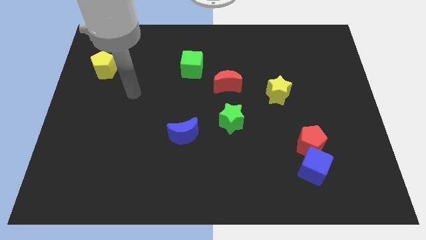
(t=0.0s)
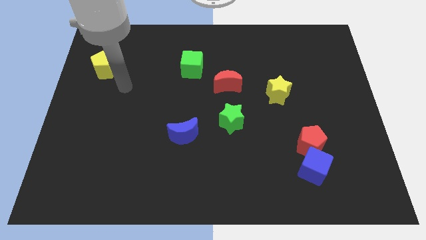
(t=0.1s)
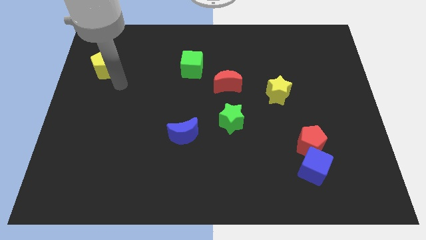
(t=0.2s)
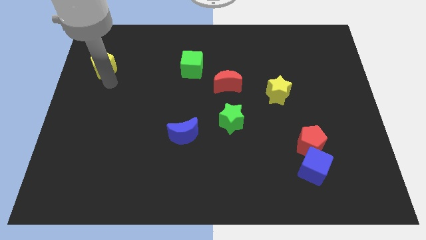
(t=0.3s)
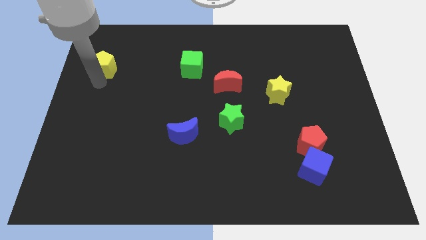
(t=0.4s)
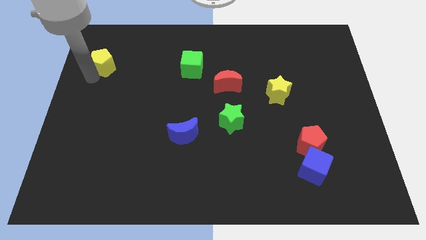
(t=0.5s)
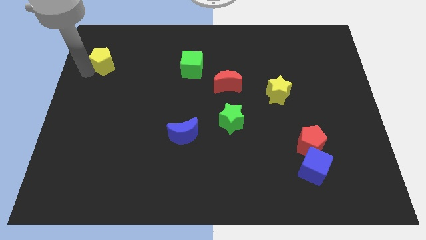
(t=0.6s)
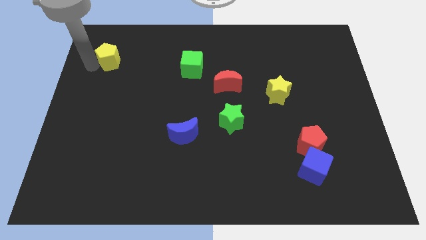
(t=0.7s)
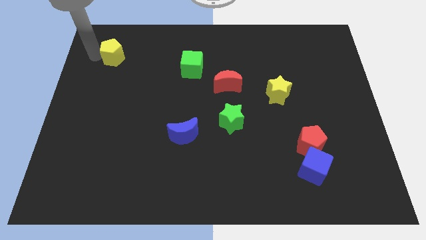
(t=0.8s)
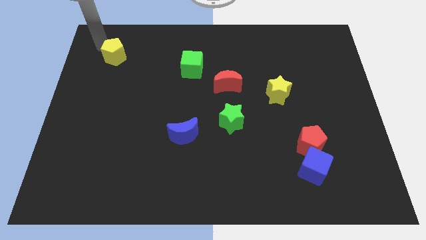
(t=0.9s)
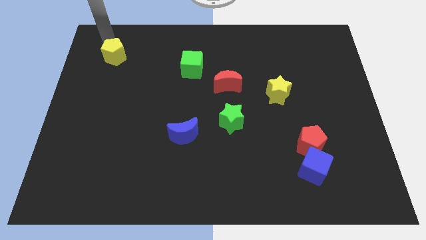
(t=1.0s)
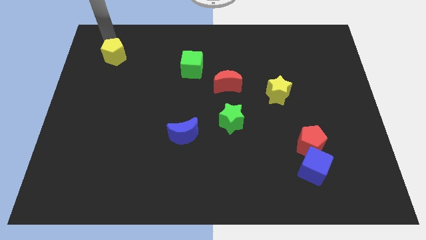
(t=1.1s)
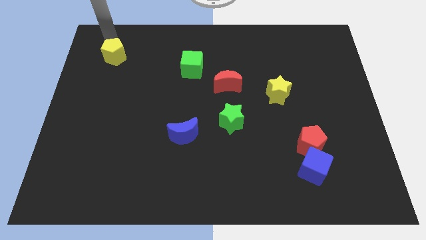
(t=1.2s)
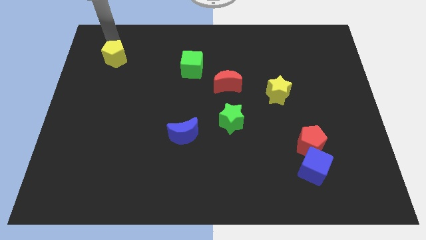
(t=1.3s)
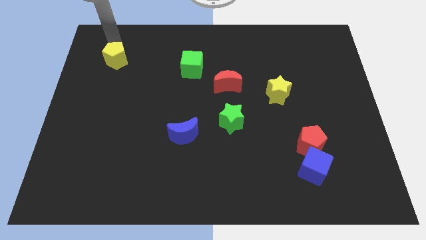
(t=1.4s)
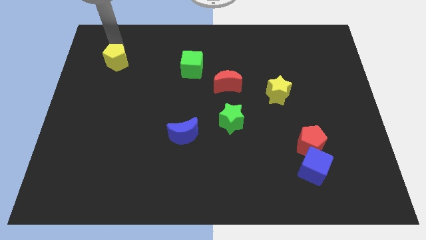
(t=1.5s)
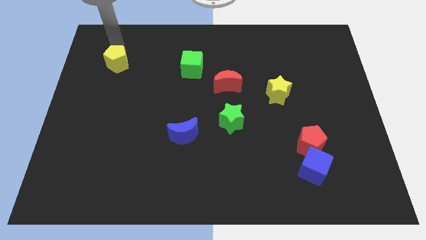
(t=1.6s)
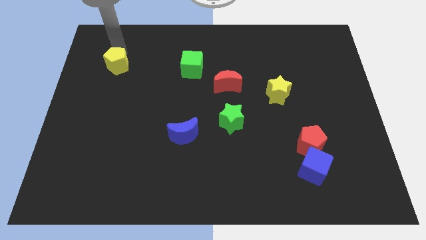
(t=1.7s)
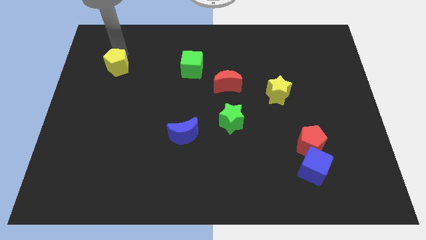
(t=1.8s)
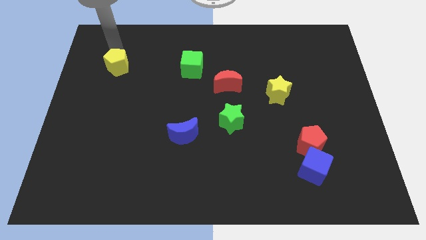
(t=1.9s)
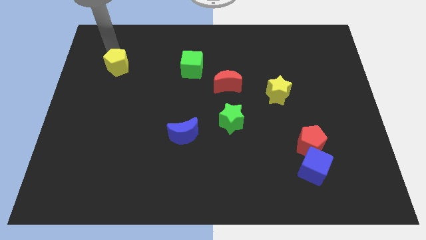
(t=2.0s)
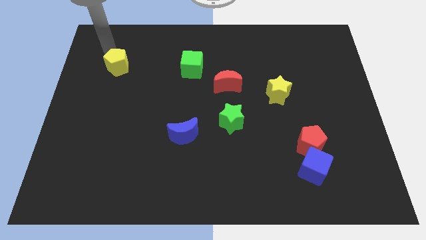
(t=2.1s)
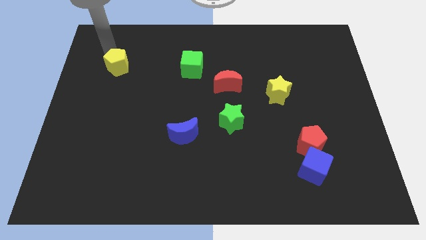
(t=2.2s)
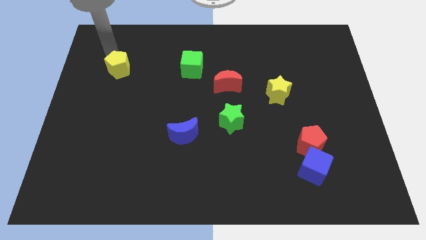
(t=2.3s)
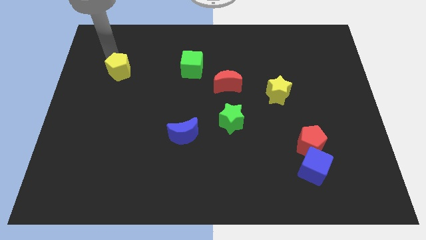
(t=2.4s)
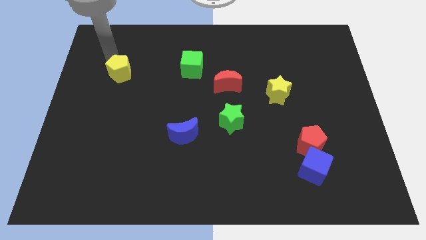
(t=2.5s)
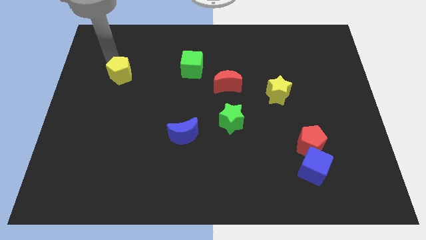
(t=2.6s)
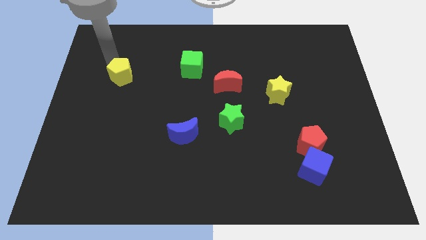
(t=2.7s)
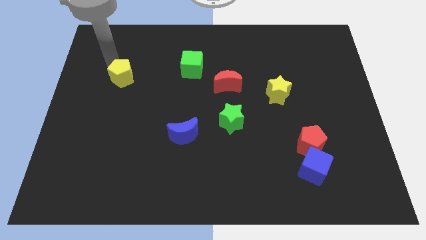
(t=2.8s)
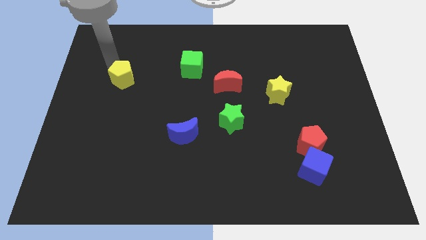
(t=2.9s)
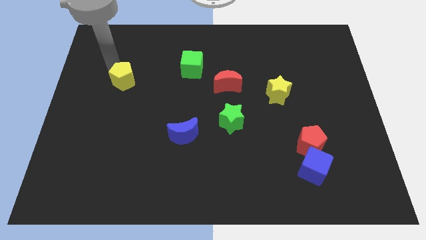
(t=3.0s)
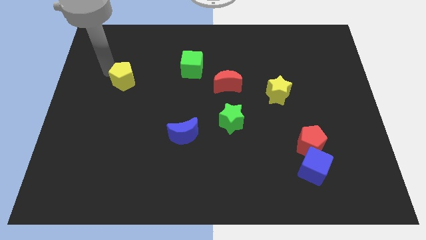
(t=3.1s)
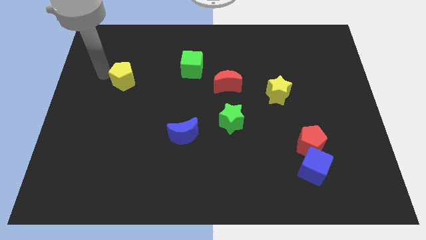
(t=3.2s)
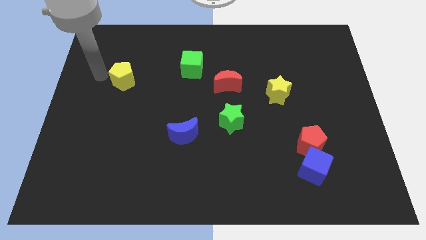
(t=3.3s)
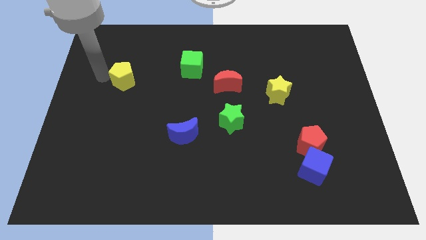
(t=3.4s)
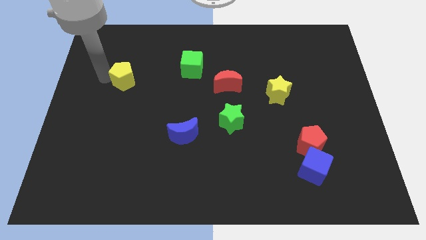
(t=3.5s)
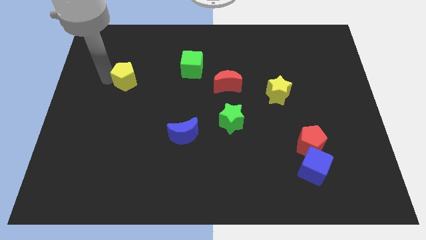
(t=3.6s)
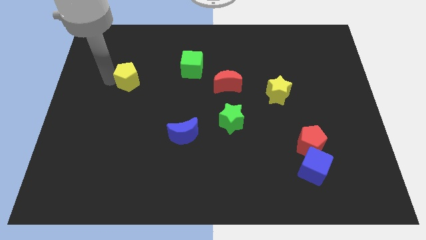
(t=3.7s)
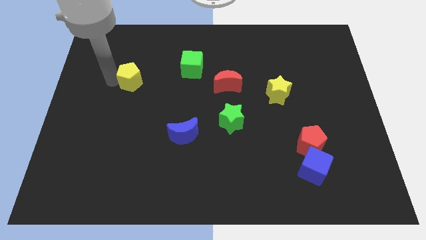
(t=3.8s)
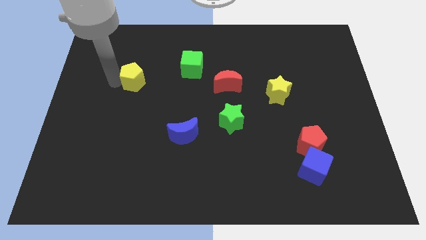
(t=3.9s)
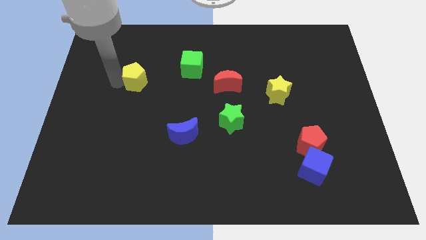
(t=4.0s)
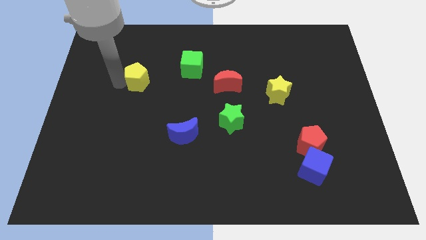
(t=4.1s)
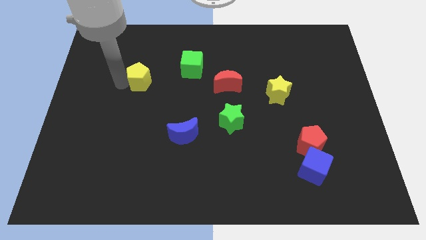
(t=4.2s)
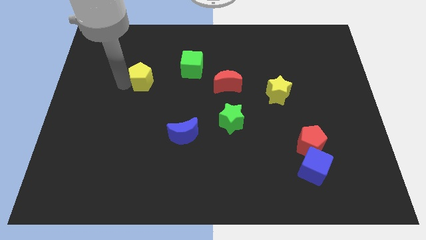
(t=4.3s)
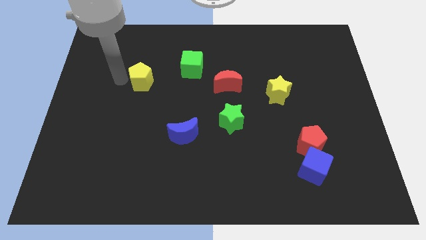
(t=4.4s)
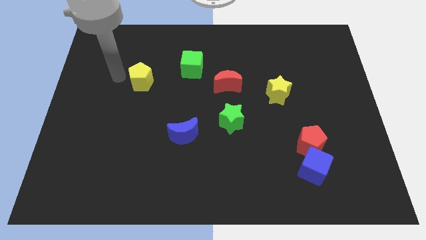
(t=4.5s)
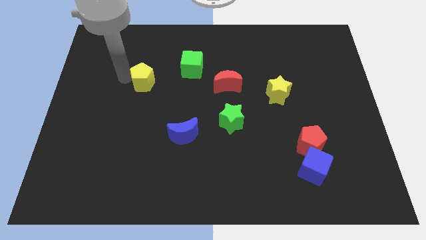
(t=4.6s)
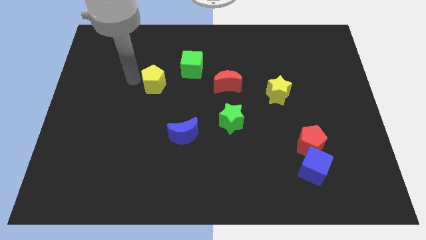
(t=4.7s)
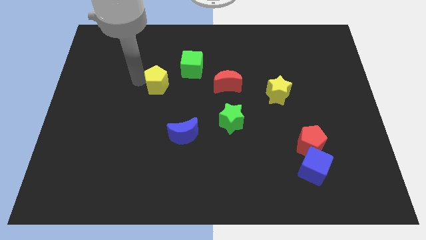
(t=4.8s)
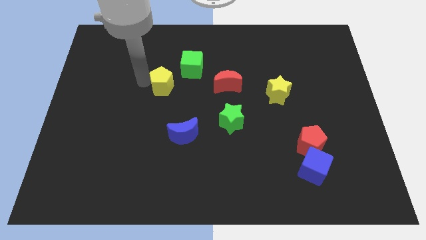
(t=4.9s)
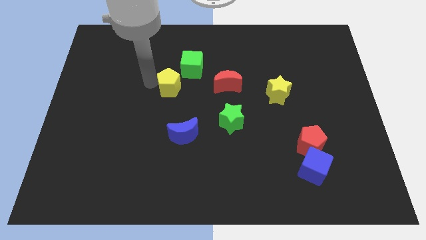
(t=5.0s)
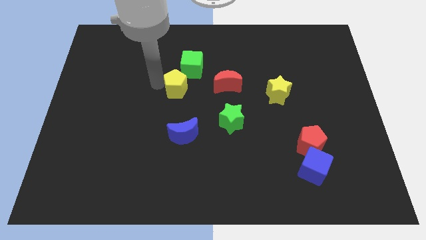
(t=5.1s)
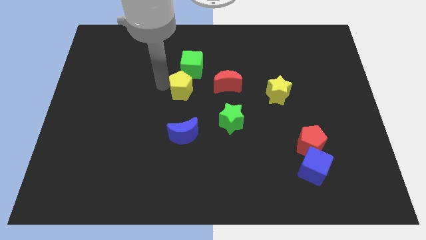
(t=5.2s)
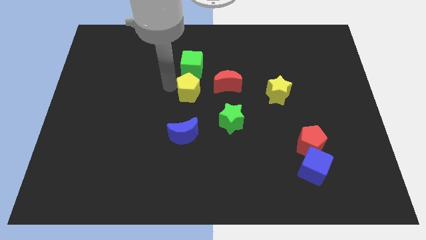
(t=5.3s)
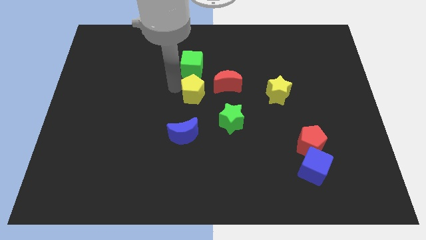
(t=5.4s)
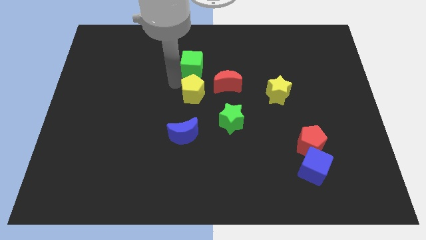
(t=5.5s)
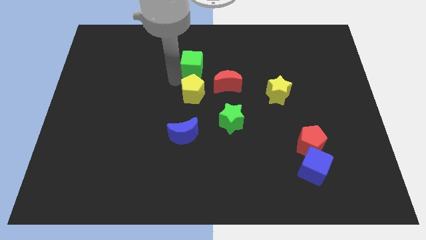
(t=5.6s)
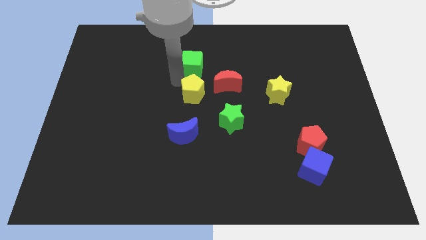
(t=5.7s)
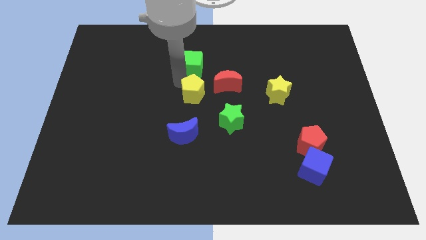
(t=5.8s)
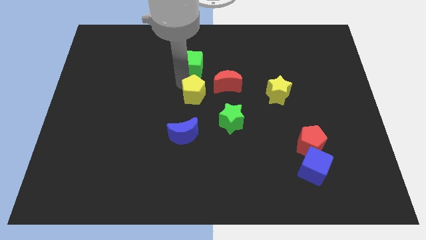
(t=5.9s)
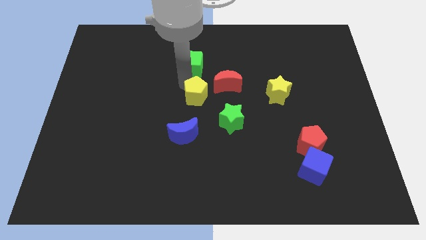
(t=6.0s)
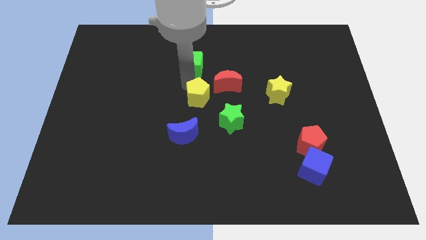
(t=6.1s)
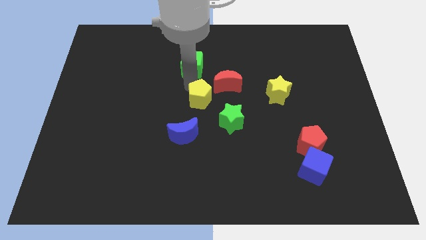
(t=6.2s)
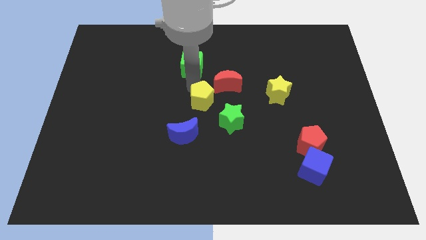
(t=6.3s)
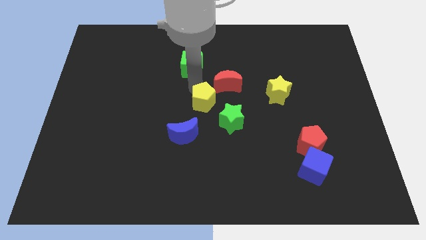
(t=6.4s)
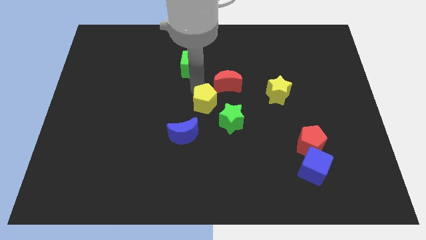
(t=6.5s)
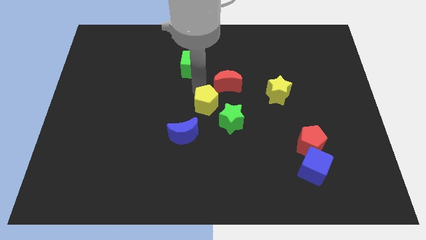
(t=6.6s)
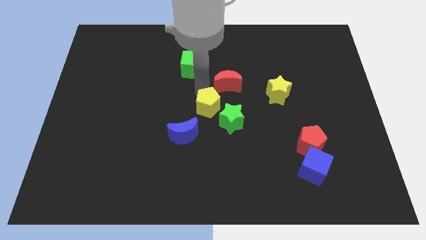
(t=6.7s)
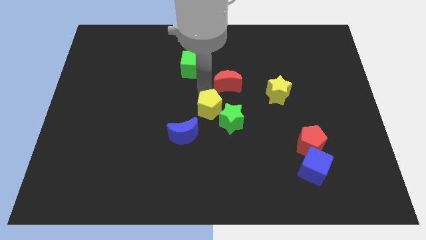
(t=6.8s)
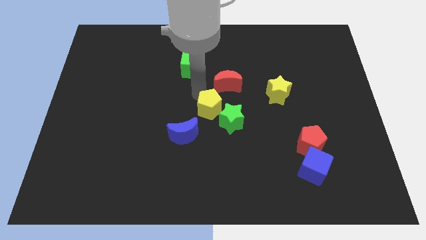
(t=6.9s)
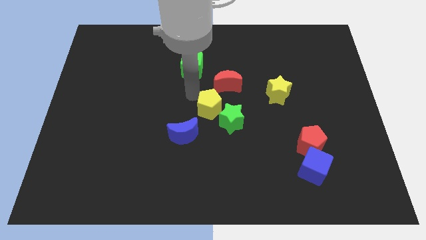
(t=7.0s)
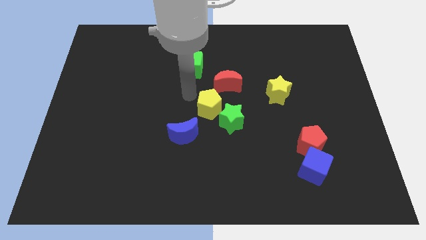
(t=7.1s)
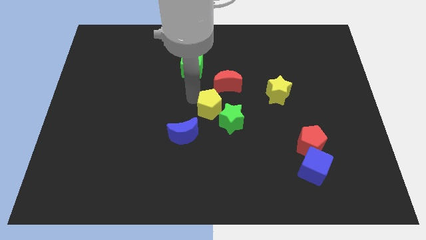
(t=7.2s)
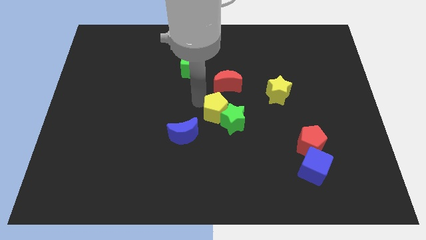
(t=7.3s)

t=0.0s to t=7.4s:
move the yellow pentagon towards the green star
